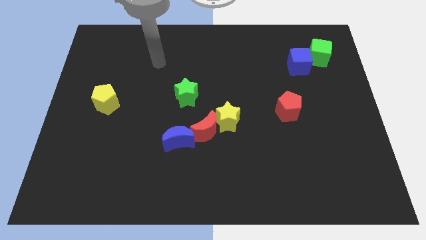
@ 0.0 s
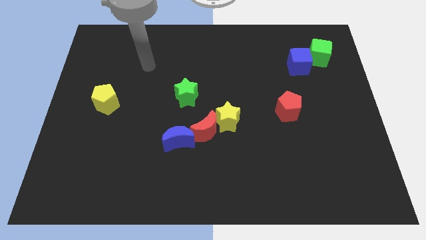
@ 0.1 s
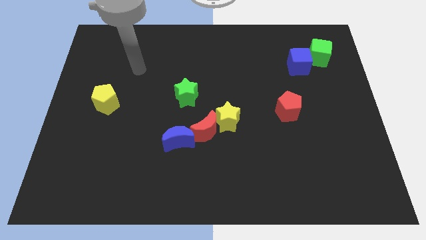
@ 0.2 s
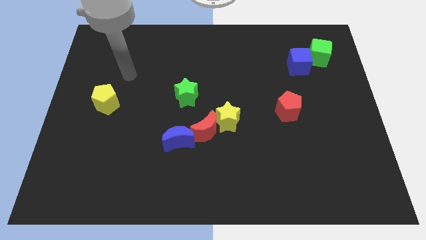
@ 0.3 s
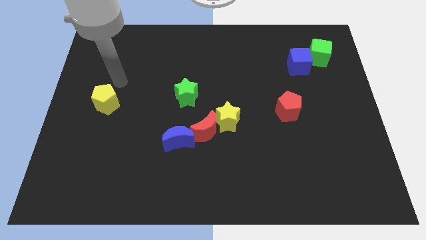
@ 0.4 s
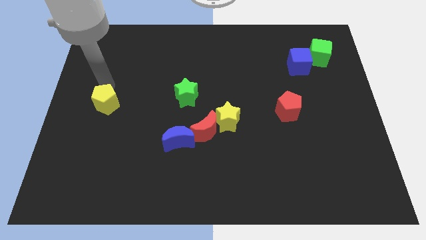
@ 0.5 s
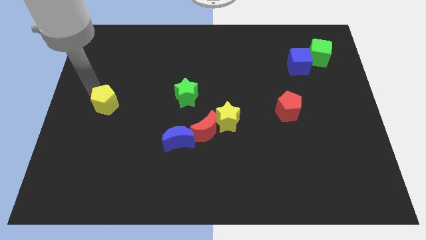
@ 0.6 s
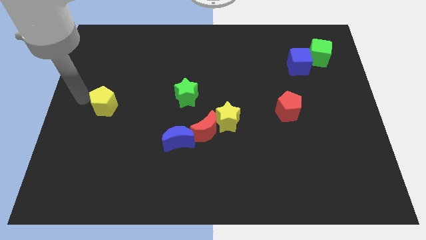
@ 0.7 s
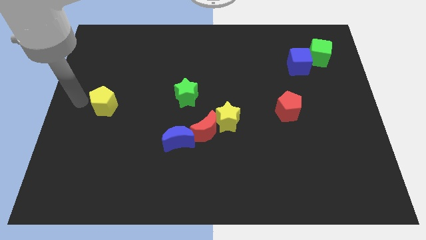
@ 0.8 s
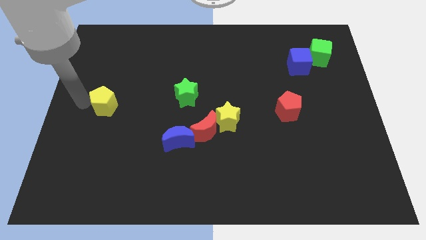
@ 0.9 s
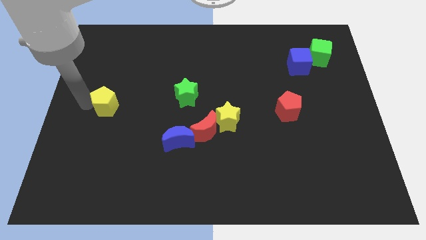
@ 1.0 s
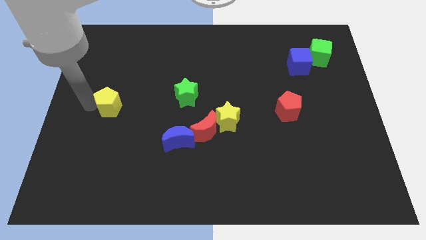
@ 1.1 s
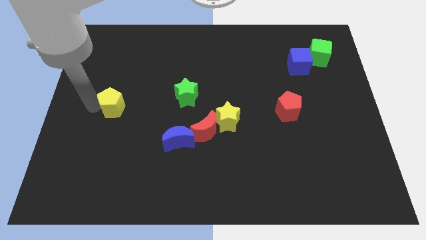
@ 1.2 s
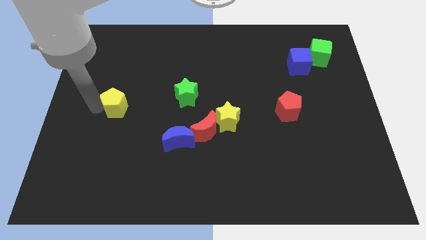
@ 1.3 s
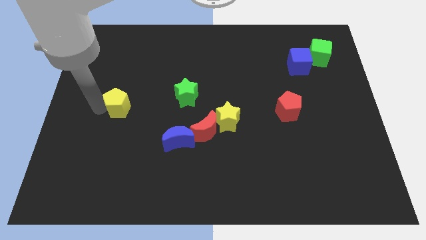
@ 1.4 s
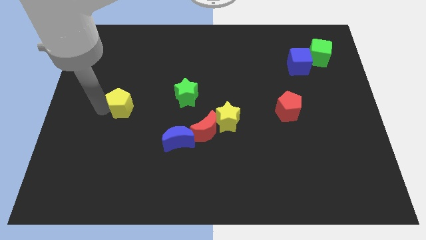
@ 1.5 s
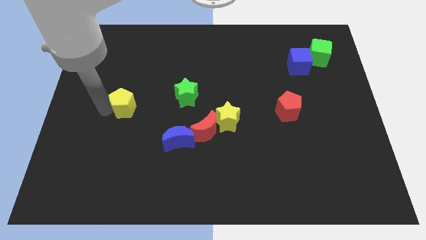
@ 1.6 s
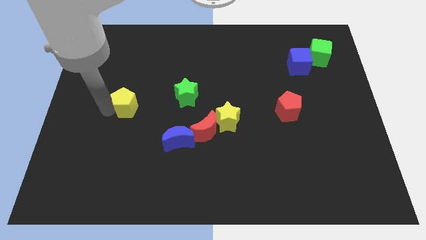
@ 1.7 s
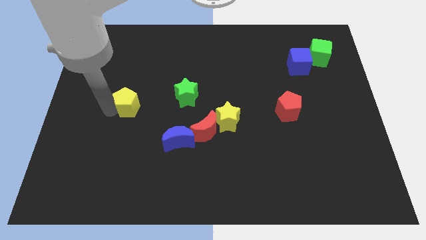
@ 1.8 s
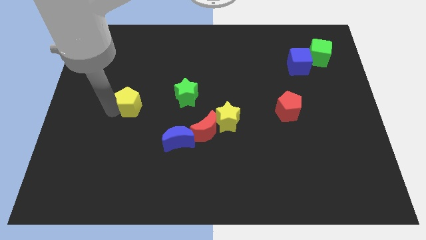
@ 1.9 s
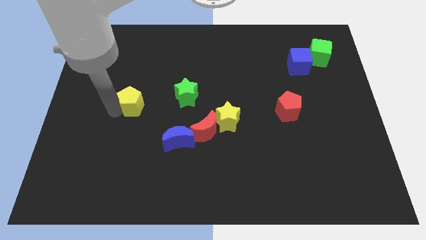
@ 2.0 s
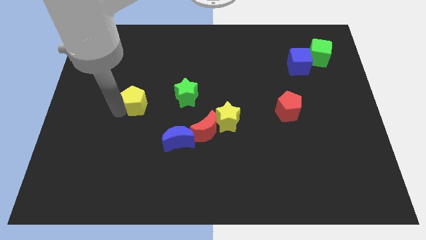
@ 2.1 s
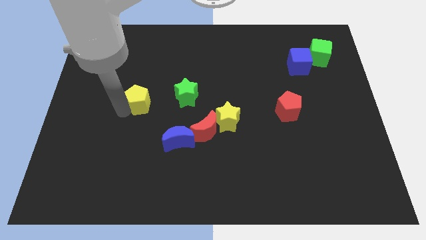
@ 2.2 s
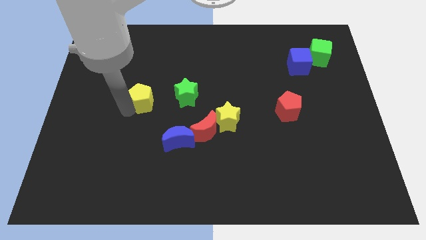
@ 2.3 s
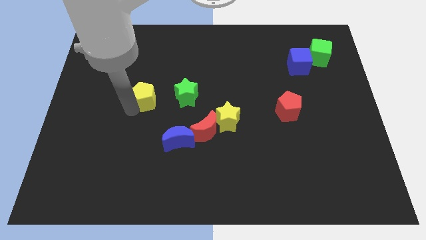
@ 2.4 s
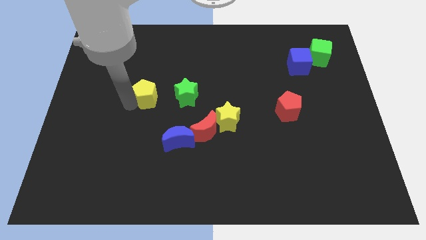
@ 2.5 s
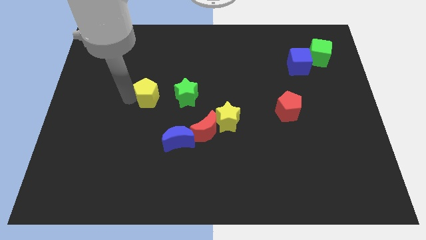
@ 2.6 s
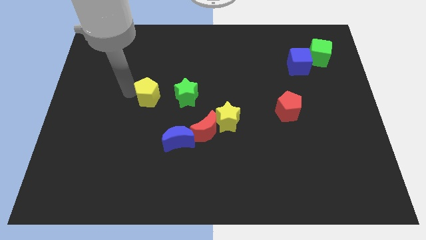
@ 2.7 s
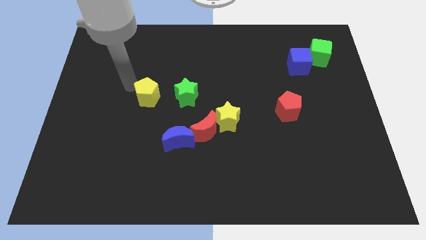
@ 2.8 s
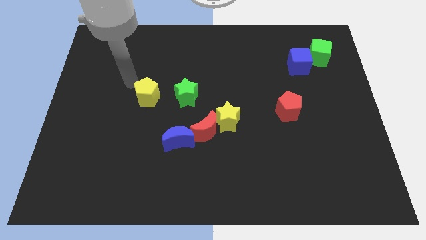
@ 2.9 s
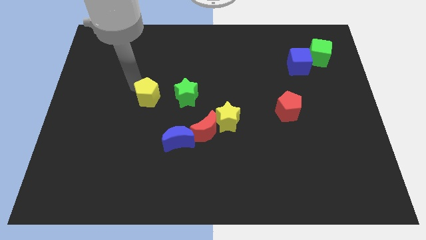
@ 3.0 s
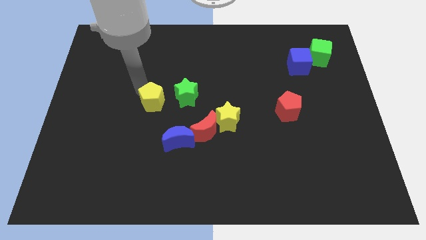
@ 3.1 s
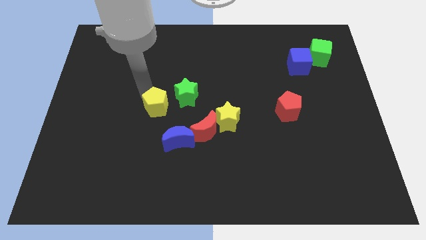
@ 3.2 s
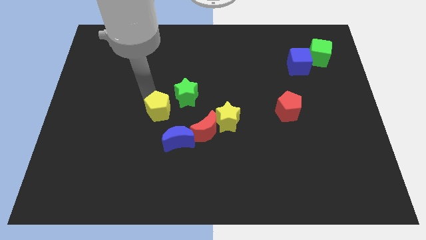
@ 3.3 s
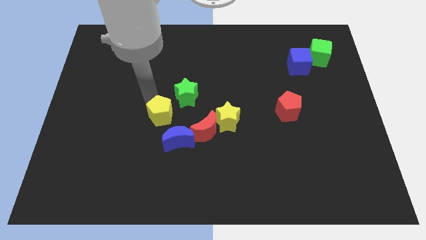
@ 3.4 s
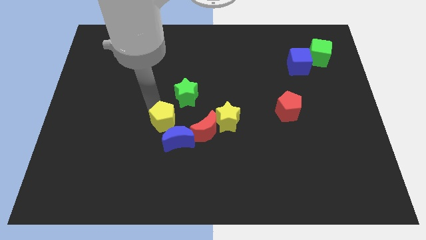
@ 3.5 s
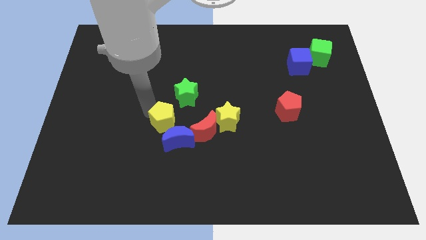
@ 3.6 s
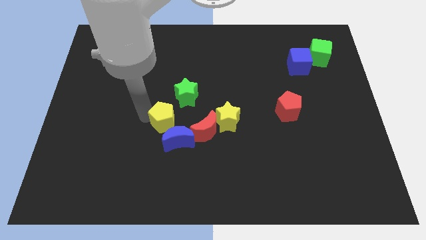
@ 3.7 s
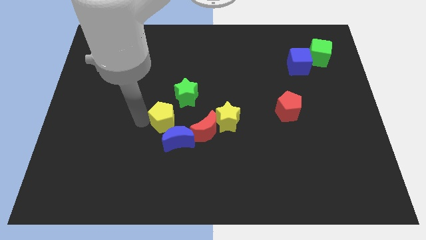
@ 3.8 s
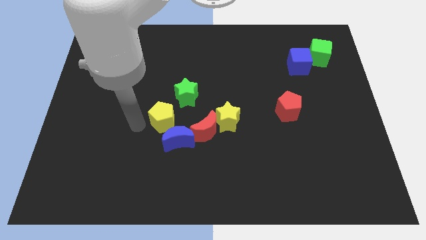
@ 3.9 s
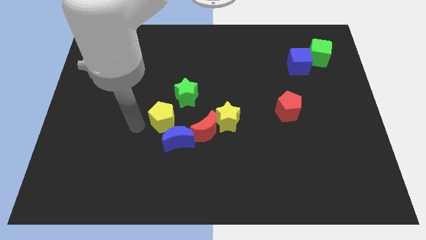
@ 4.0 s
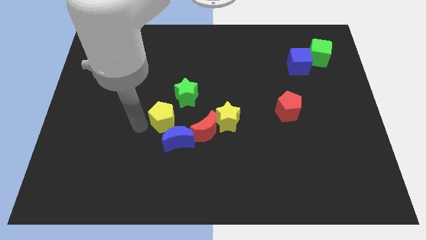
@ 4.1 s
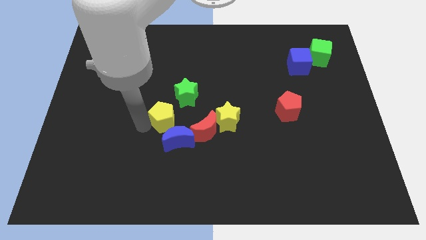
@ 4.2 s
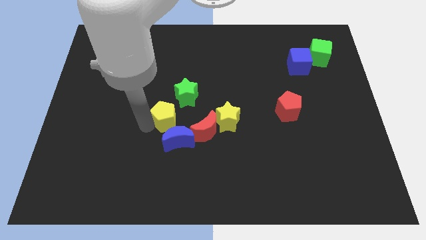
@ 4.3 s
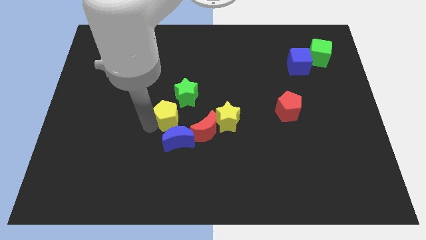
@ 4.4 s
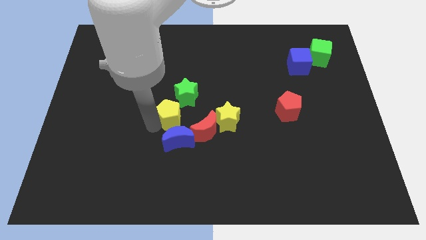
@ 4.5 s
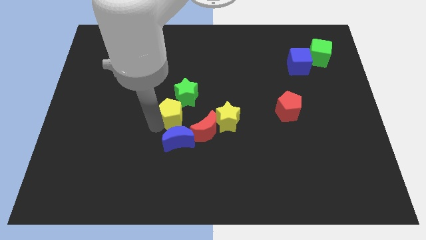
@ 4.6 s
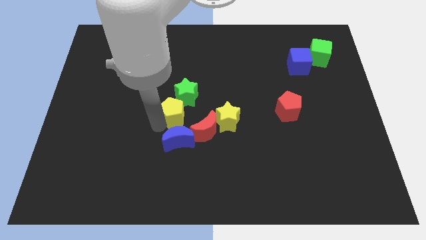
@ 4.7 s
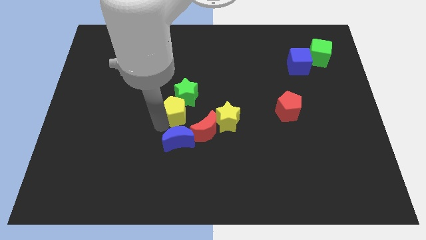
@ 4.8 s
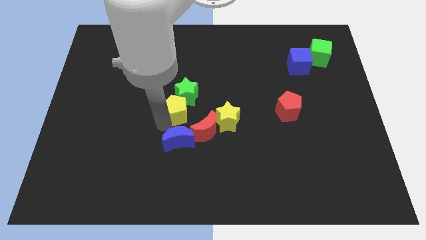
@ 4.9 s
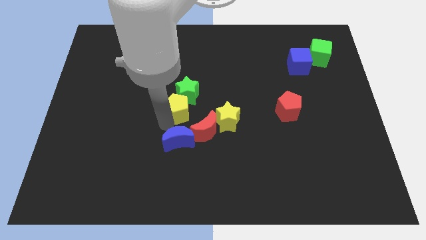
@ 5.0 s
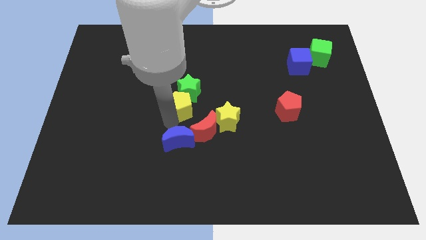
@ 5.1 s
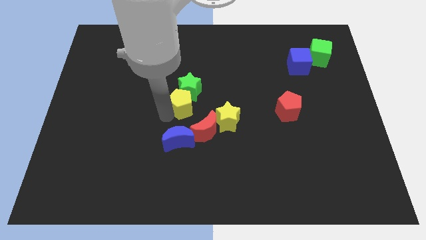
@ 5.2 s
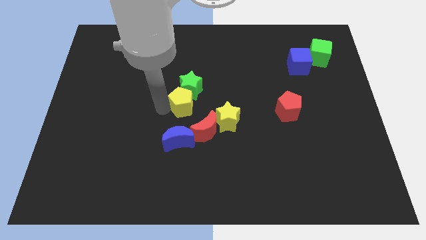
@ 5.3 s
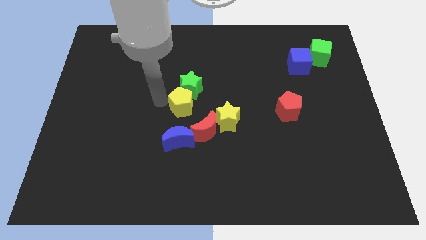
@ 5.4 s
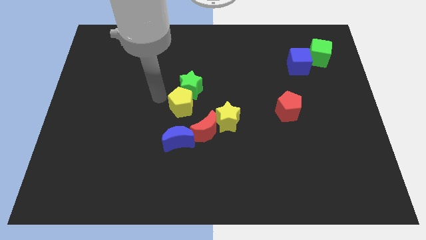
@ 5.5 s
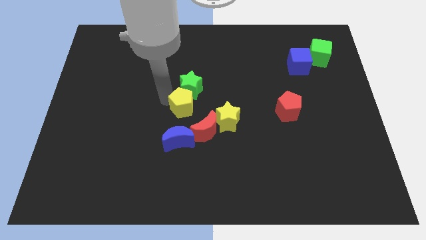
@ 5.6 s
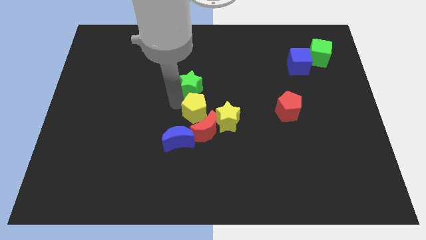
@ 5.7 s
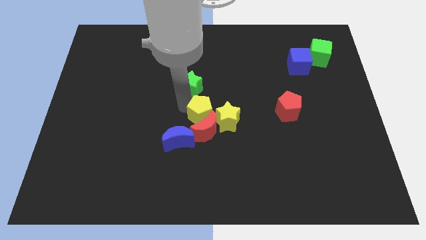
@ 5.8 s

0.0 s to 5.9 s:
push the yellow pentagon close to the yellow star
